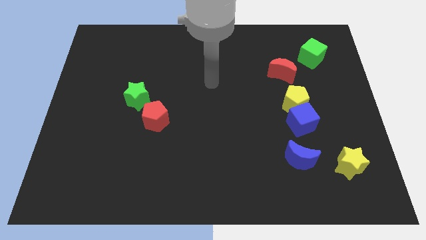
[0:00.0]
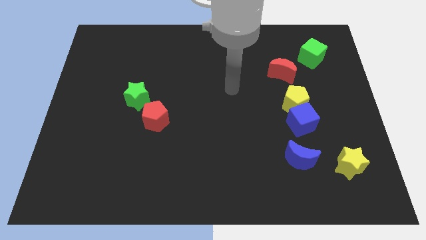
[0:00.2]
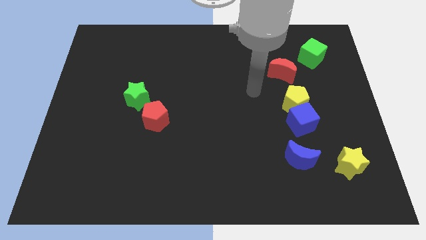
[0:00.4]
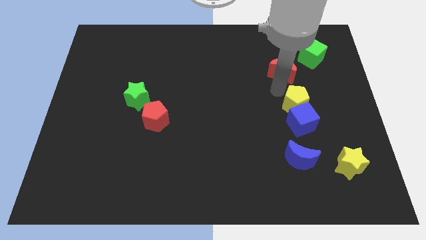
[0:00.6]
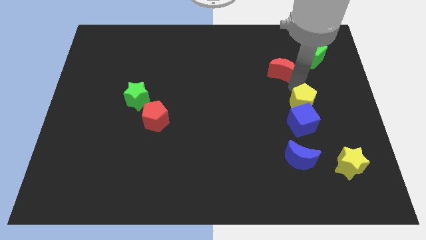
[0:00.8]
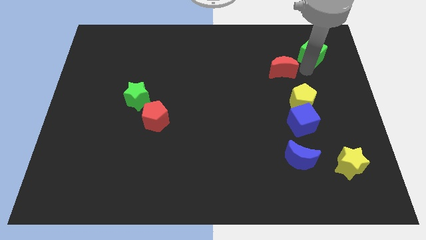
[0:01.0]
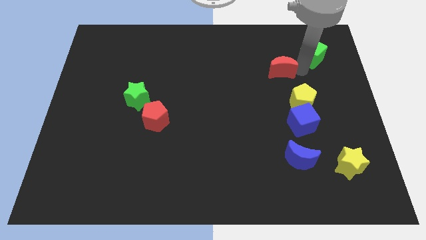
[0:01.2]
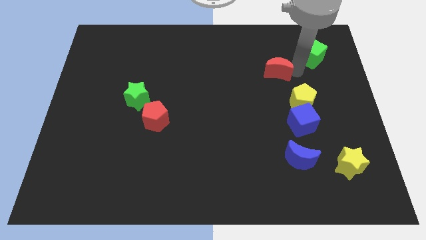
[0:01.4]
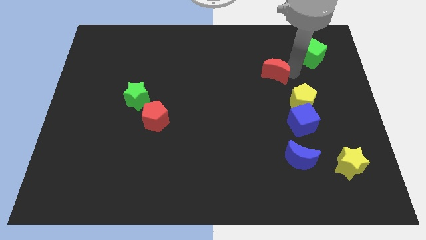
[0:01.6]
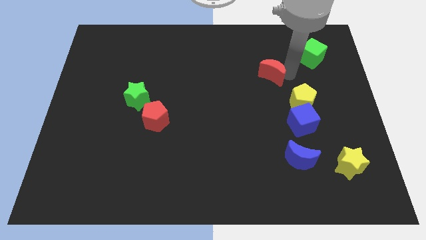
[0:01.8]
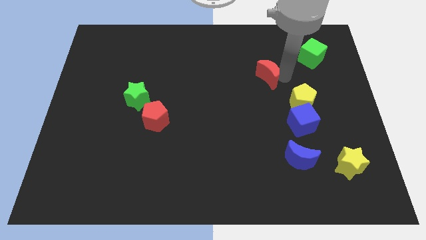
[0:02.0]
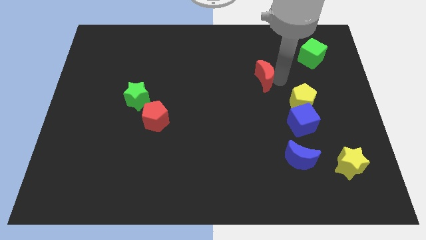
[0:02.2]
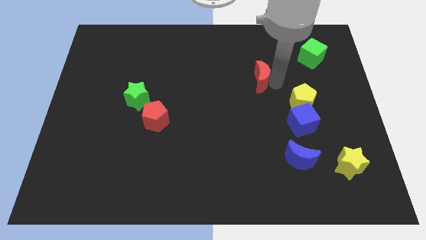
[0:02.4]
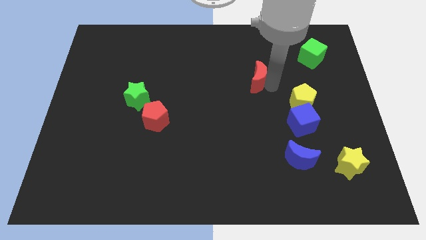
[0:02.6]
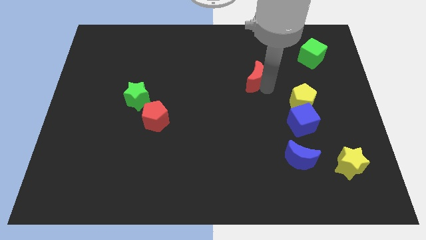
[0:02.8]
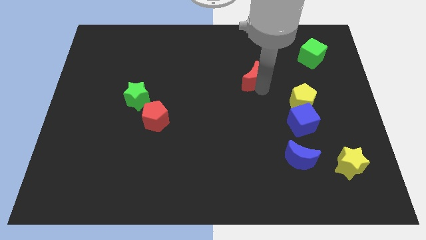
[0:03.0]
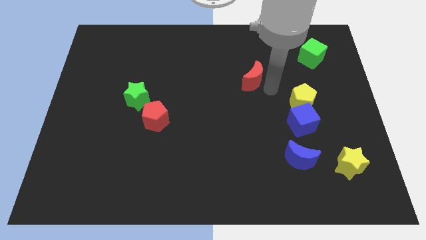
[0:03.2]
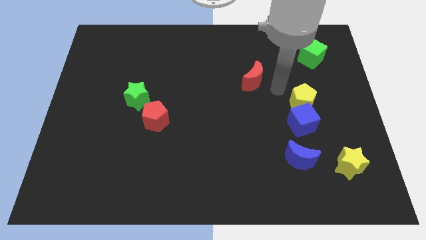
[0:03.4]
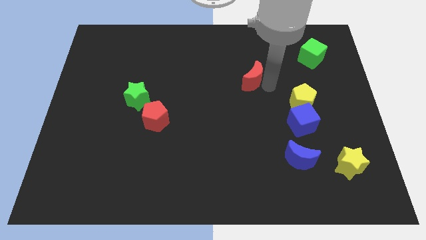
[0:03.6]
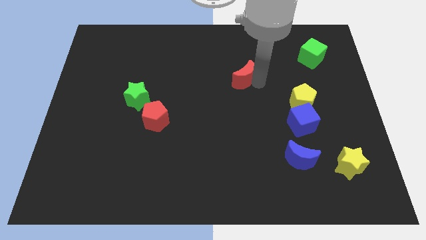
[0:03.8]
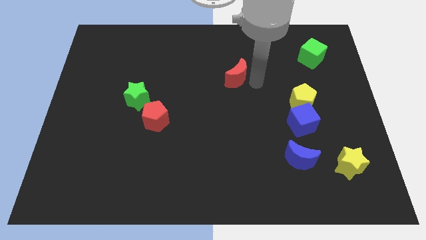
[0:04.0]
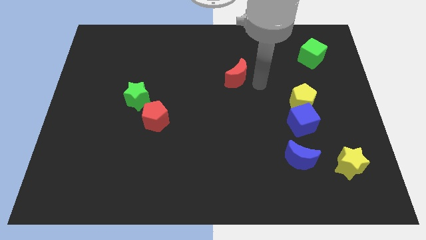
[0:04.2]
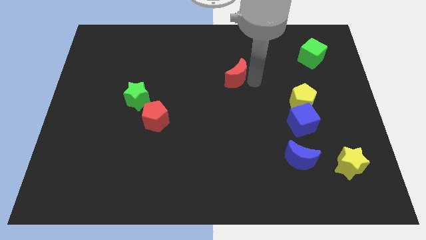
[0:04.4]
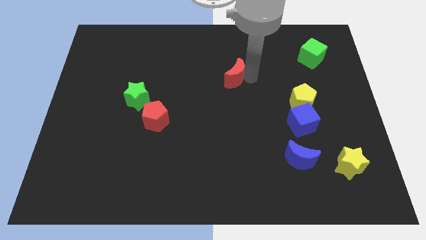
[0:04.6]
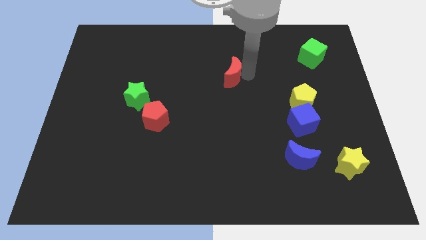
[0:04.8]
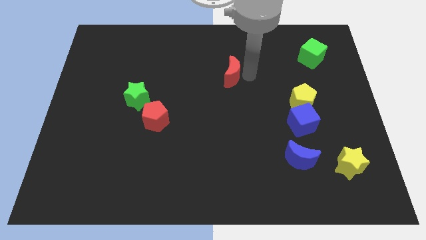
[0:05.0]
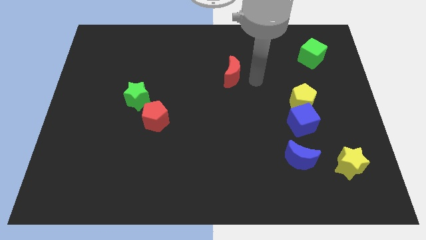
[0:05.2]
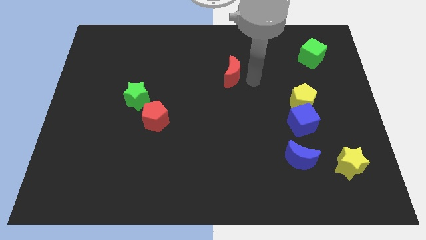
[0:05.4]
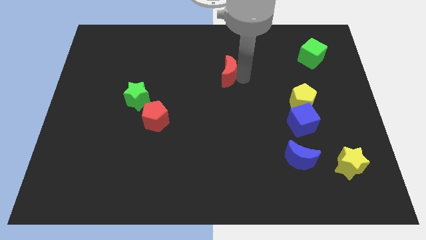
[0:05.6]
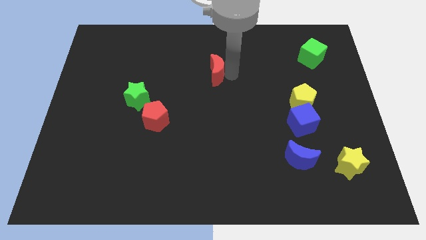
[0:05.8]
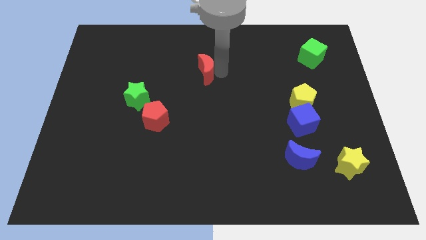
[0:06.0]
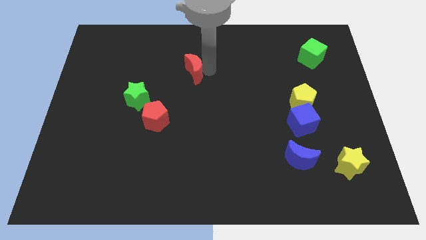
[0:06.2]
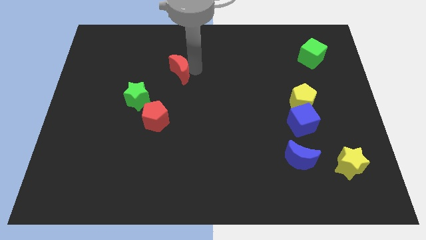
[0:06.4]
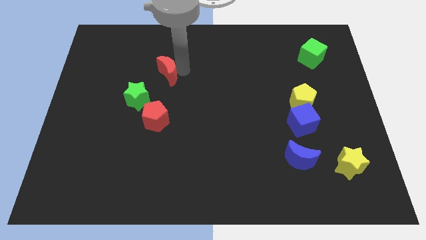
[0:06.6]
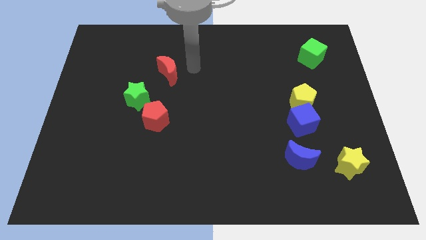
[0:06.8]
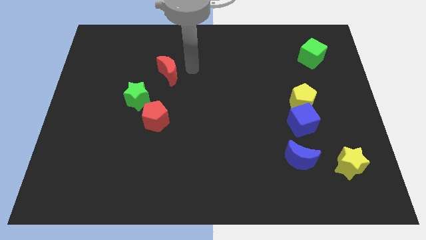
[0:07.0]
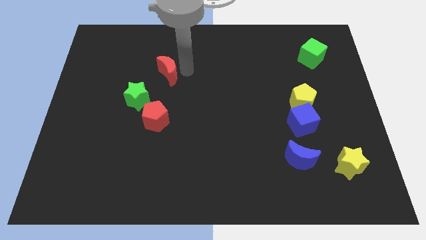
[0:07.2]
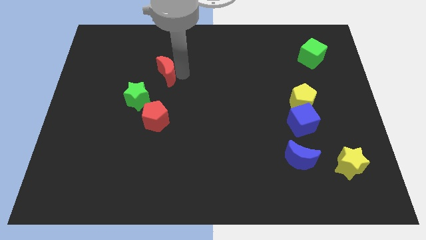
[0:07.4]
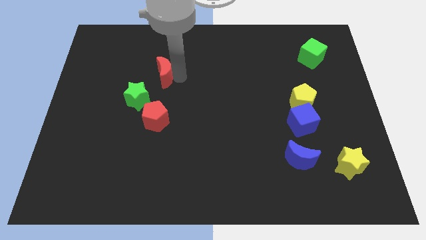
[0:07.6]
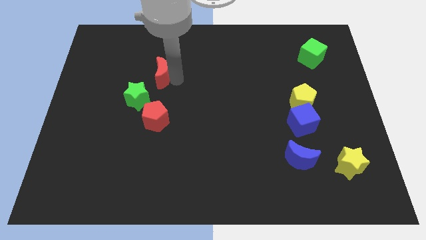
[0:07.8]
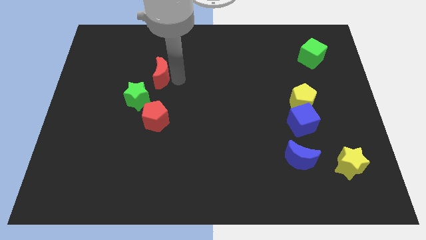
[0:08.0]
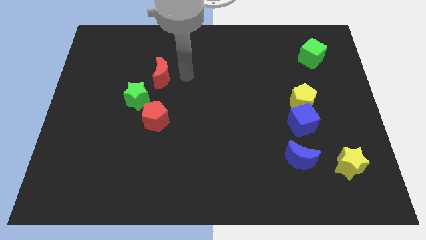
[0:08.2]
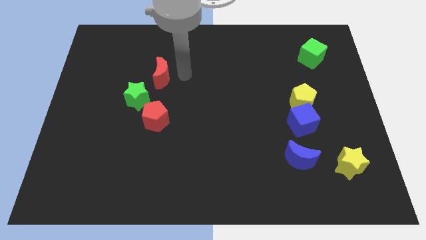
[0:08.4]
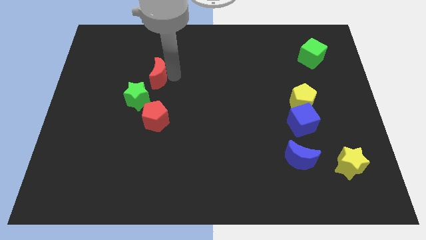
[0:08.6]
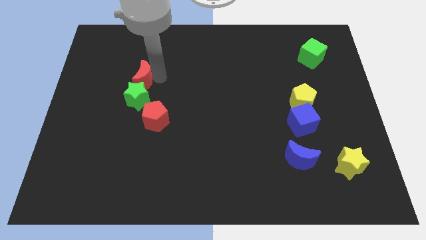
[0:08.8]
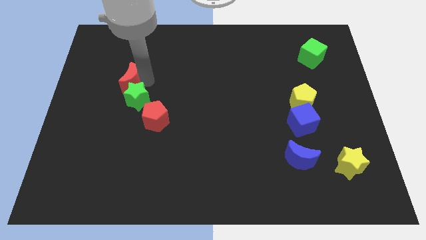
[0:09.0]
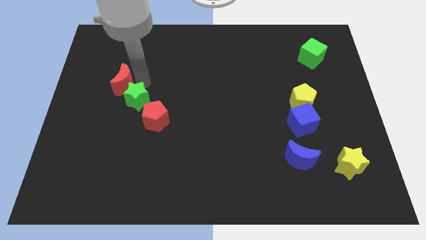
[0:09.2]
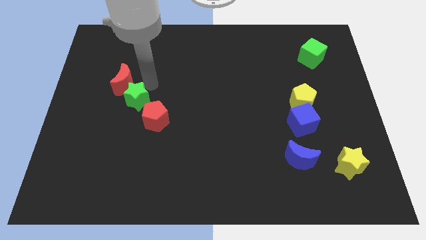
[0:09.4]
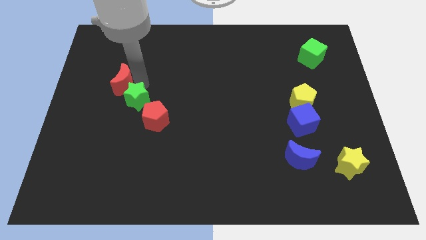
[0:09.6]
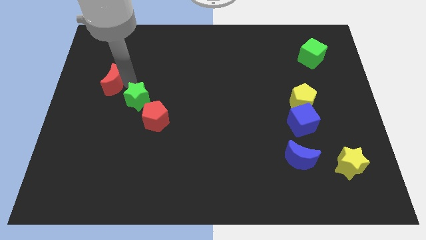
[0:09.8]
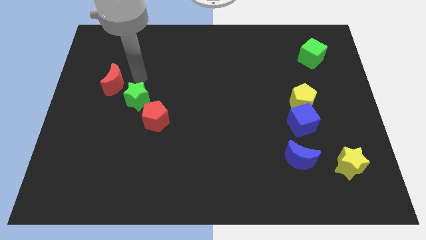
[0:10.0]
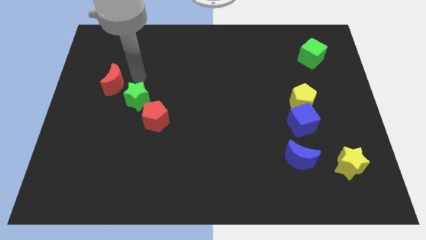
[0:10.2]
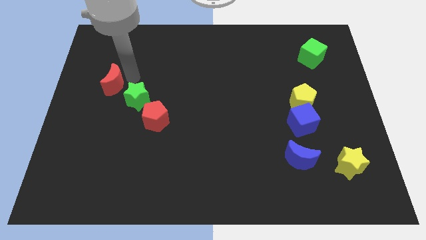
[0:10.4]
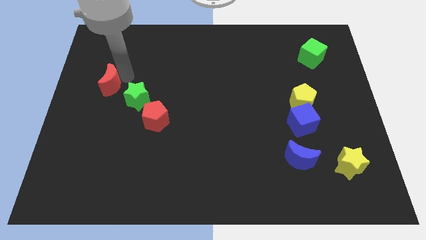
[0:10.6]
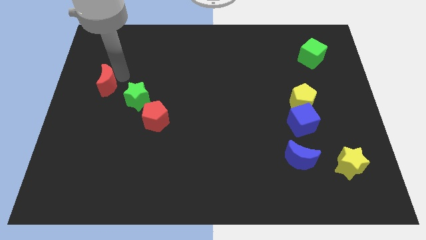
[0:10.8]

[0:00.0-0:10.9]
move the red moon to the left side of the board
